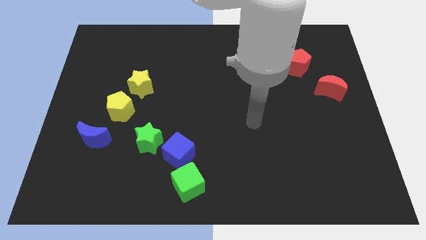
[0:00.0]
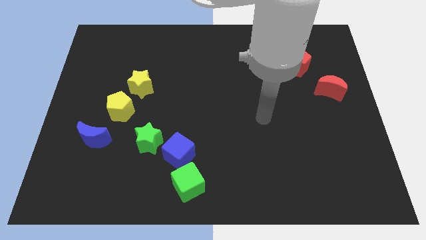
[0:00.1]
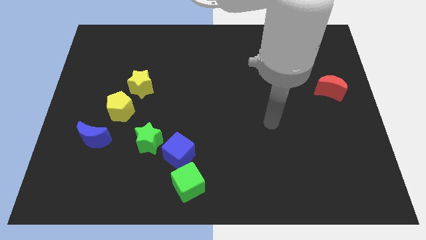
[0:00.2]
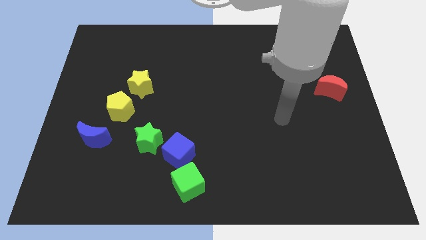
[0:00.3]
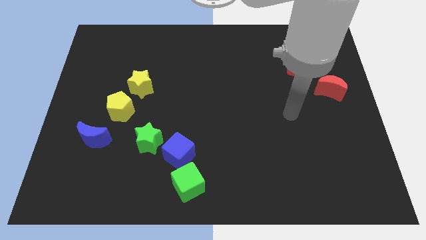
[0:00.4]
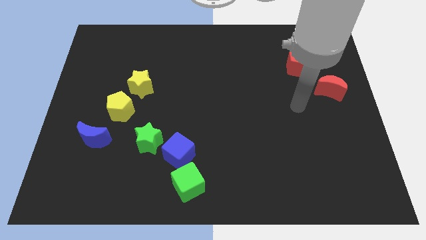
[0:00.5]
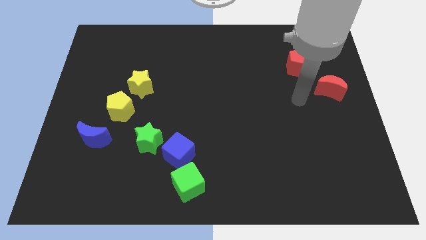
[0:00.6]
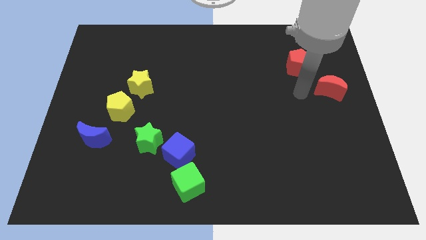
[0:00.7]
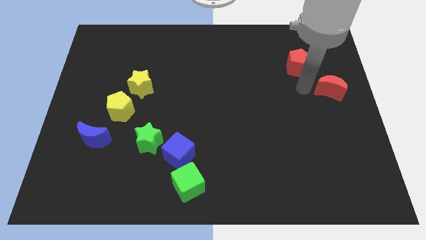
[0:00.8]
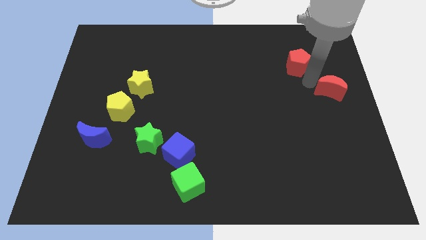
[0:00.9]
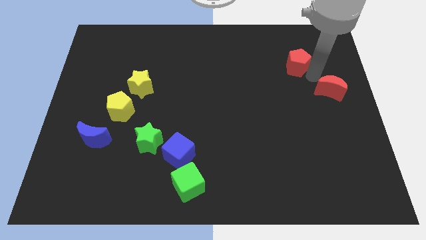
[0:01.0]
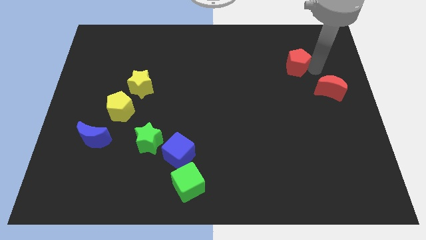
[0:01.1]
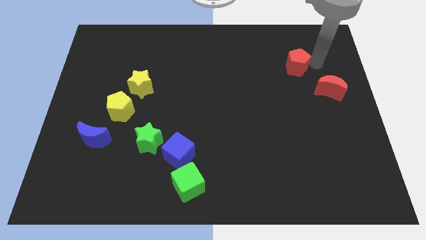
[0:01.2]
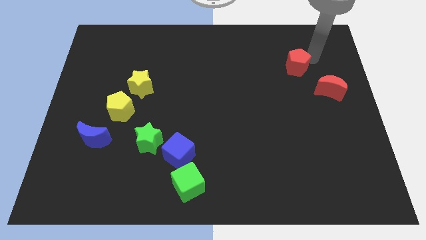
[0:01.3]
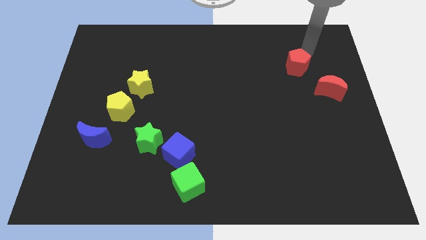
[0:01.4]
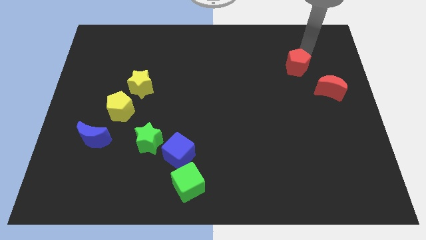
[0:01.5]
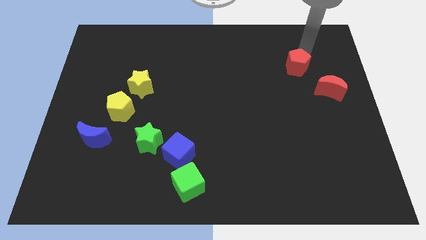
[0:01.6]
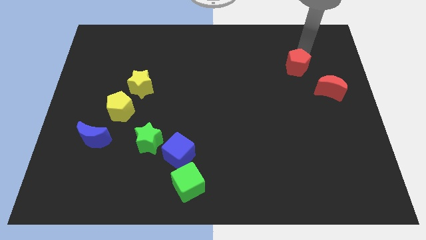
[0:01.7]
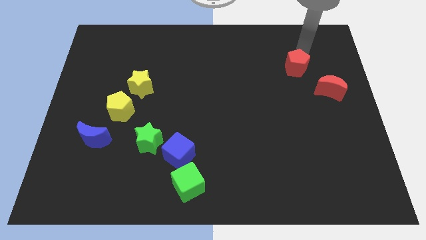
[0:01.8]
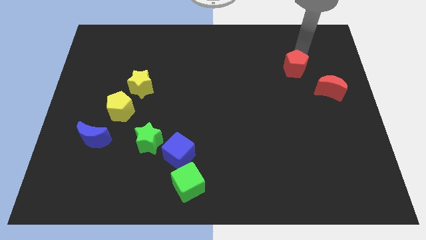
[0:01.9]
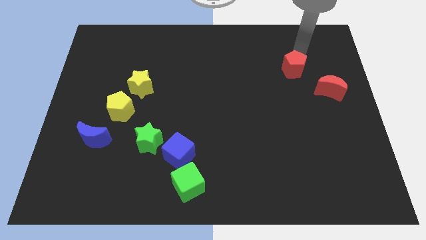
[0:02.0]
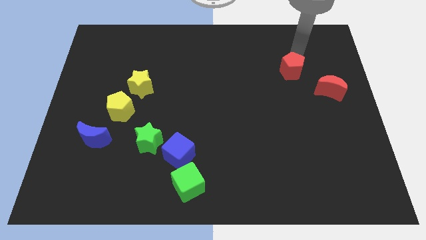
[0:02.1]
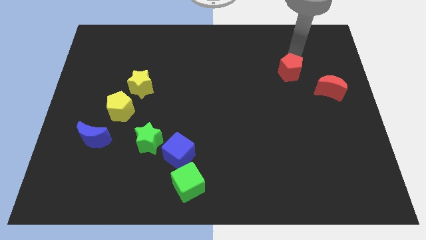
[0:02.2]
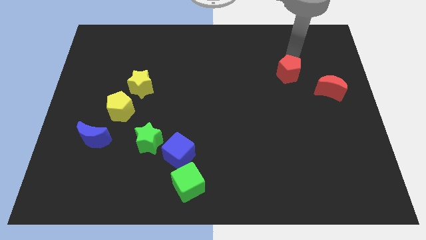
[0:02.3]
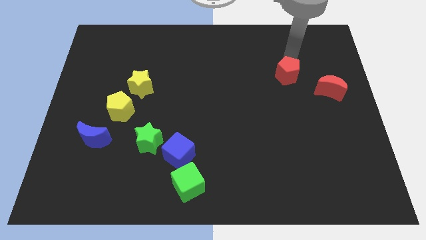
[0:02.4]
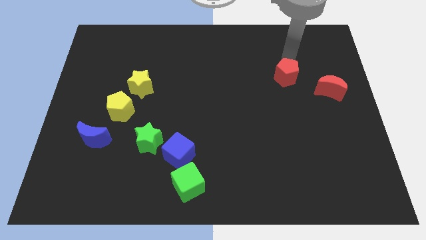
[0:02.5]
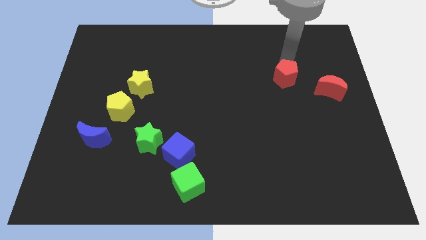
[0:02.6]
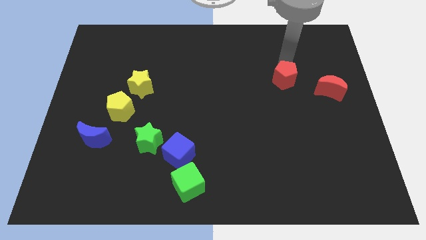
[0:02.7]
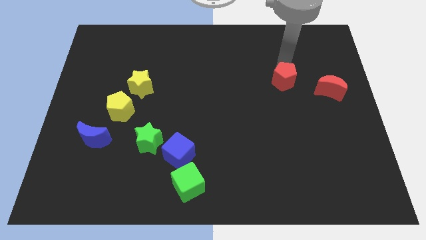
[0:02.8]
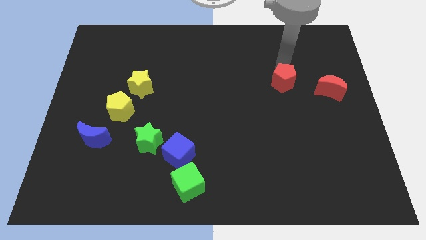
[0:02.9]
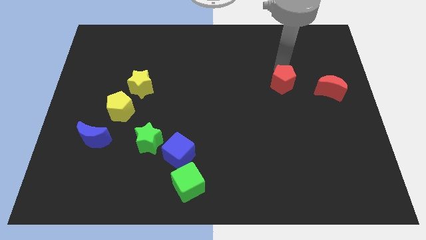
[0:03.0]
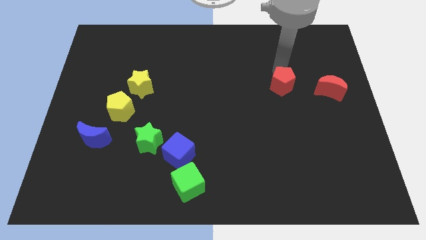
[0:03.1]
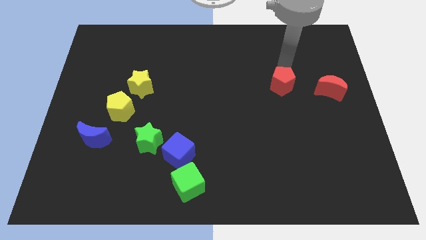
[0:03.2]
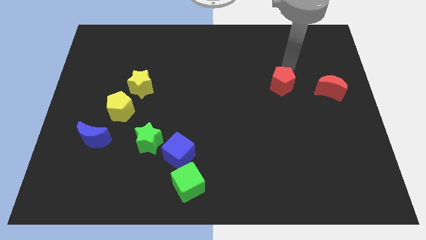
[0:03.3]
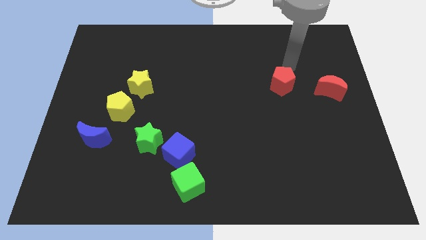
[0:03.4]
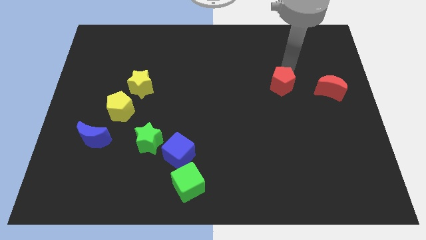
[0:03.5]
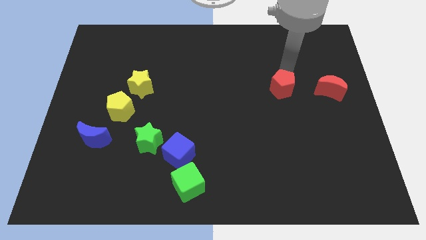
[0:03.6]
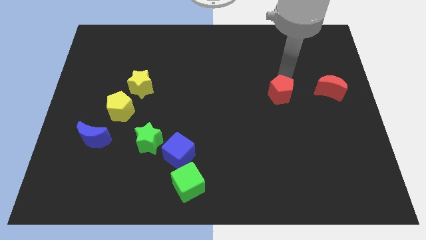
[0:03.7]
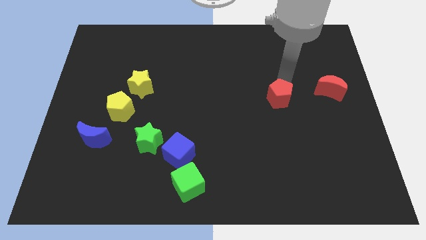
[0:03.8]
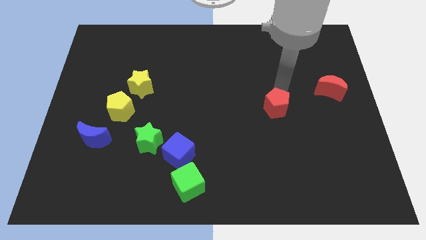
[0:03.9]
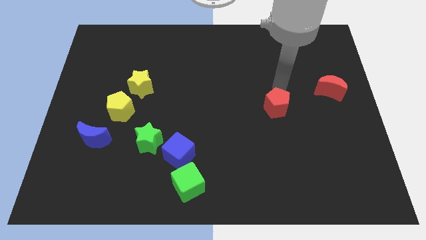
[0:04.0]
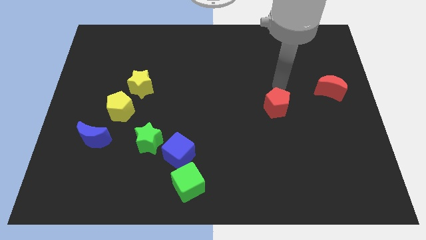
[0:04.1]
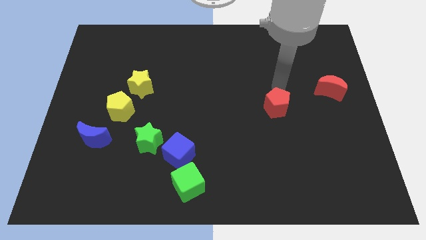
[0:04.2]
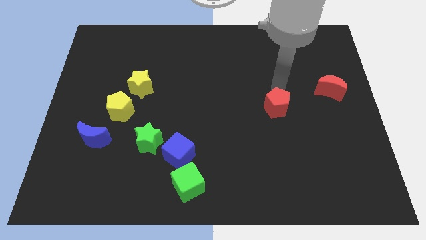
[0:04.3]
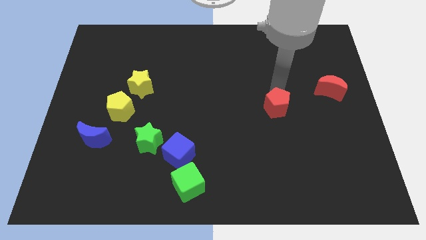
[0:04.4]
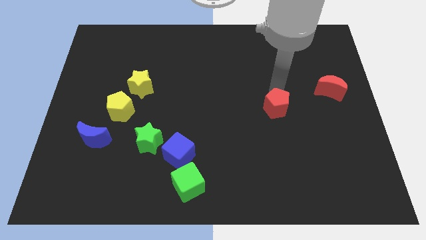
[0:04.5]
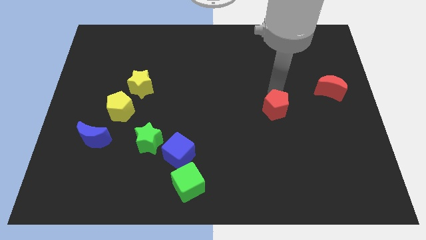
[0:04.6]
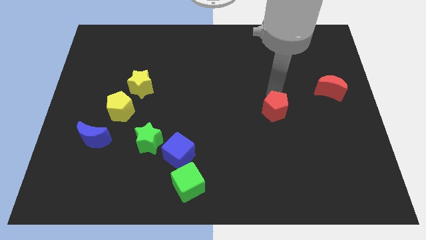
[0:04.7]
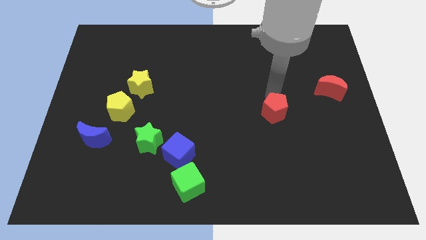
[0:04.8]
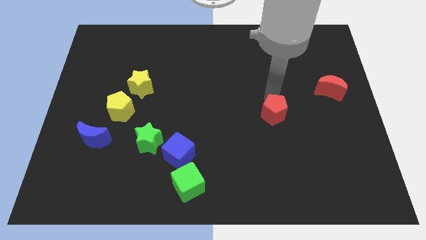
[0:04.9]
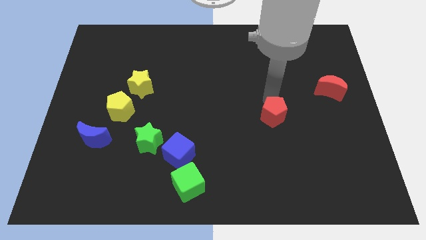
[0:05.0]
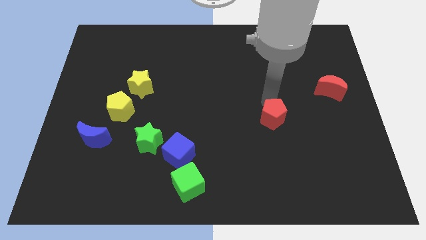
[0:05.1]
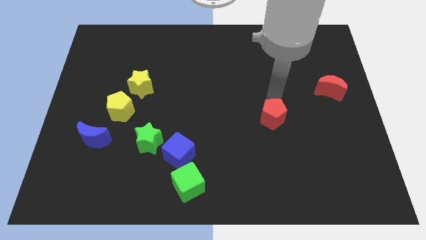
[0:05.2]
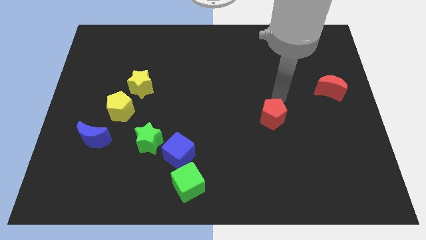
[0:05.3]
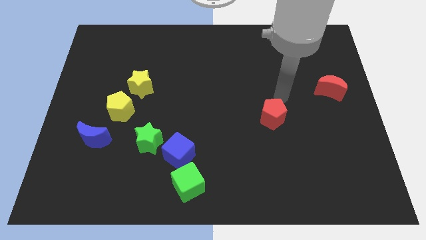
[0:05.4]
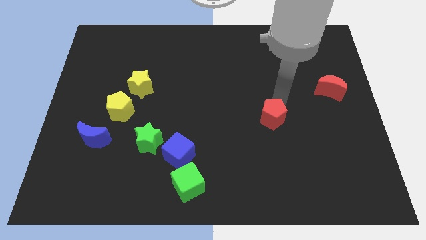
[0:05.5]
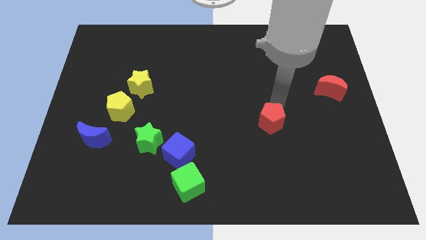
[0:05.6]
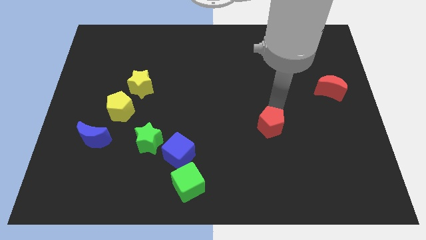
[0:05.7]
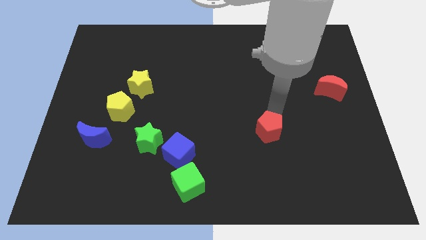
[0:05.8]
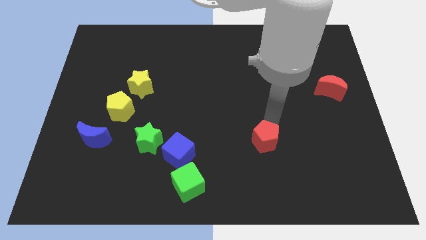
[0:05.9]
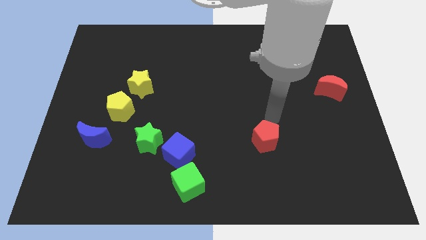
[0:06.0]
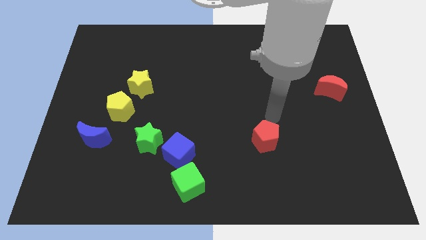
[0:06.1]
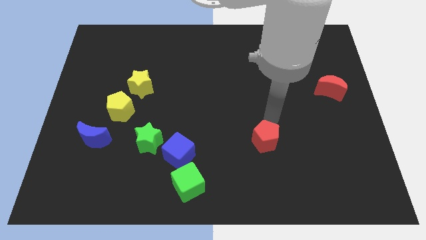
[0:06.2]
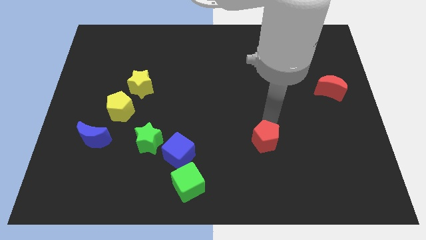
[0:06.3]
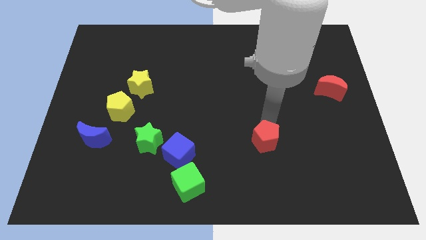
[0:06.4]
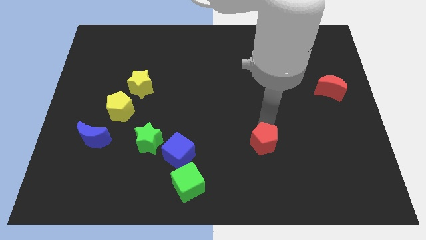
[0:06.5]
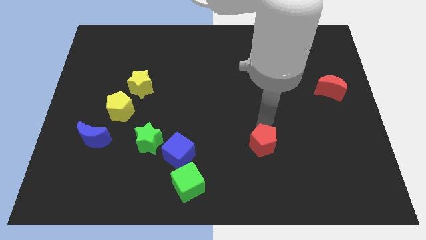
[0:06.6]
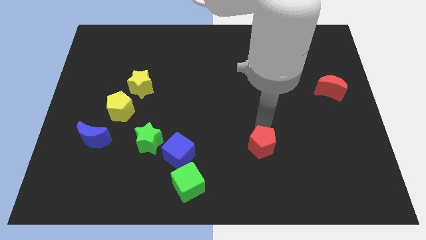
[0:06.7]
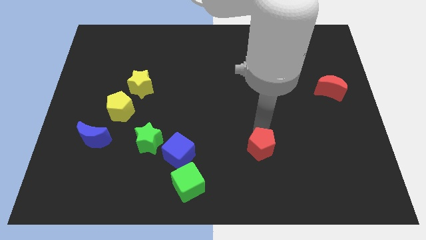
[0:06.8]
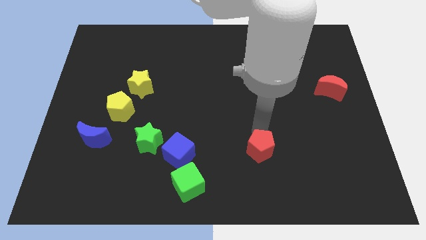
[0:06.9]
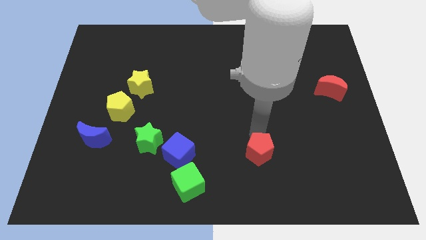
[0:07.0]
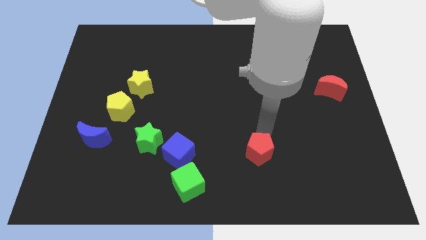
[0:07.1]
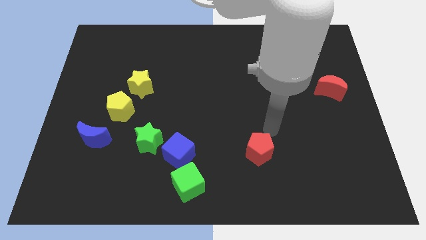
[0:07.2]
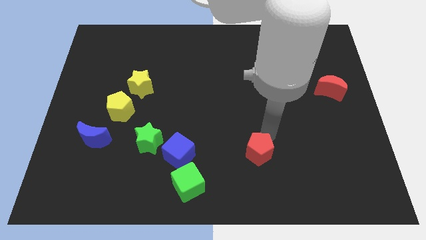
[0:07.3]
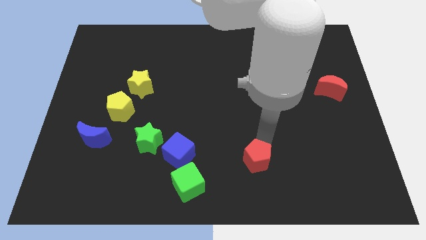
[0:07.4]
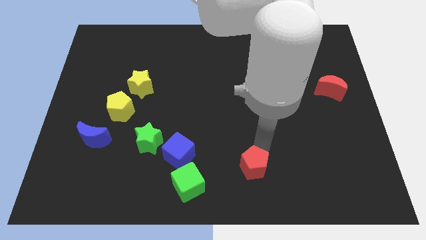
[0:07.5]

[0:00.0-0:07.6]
slide the red pentagon to the bottom
